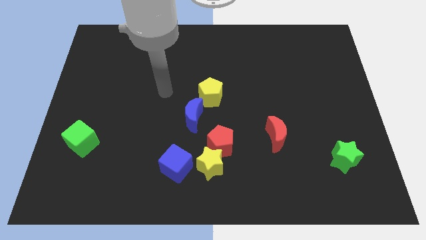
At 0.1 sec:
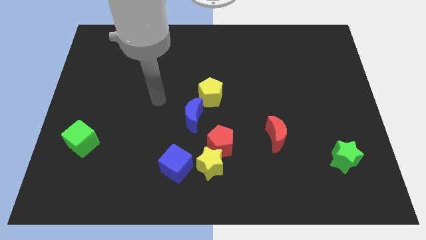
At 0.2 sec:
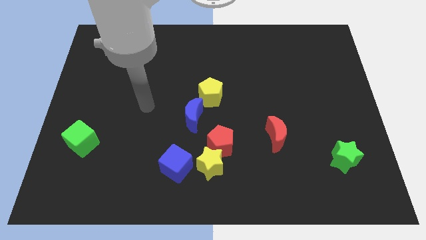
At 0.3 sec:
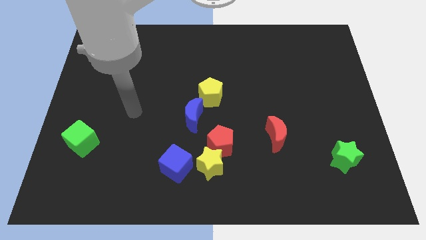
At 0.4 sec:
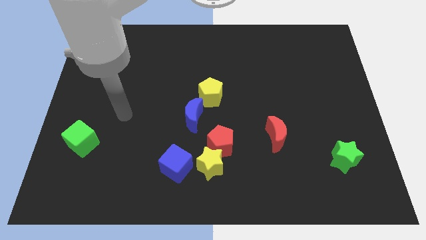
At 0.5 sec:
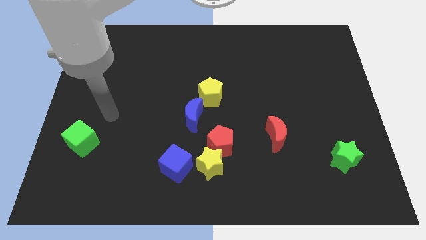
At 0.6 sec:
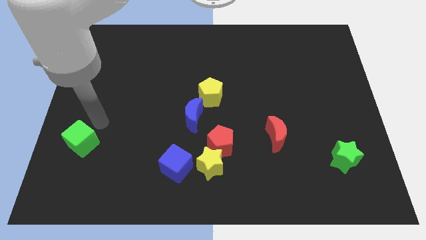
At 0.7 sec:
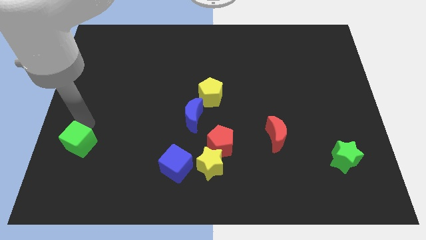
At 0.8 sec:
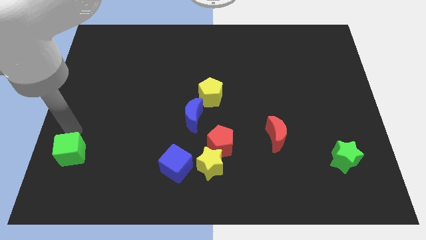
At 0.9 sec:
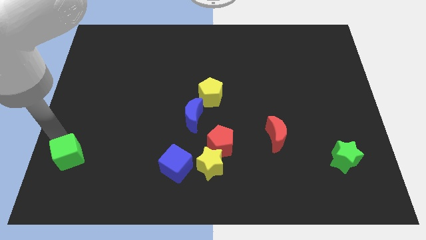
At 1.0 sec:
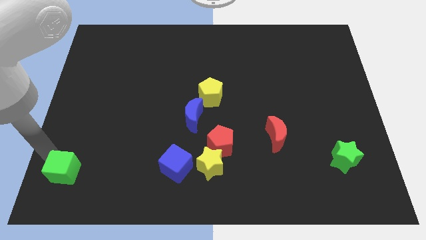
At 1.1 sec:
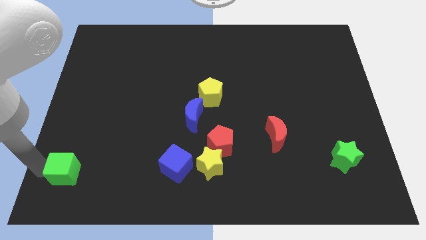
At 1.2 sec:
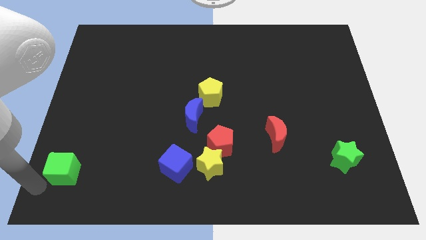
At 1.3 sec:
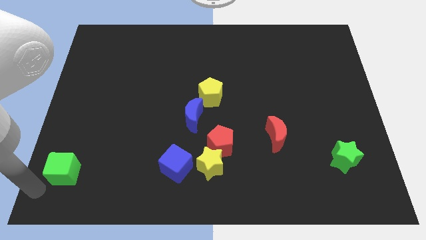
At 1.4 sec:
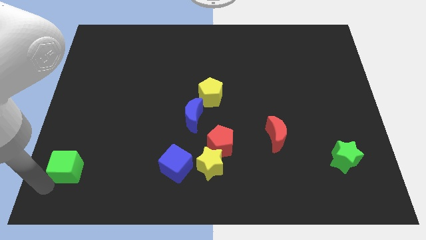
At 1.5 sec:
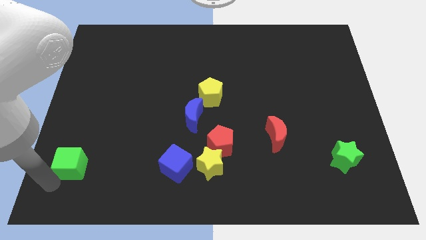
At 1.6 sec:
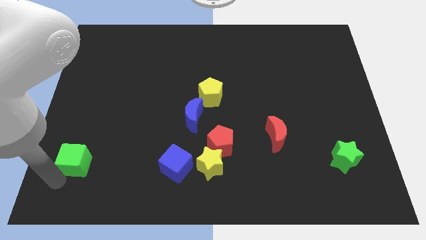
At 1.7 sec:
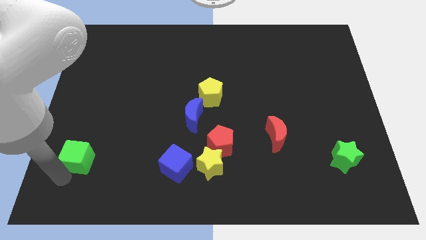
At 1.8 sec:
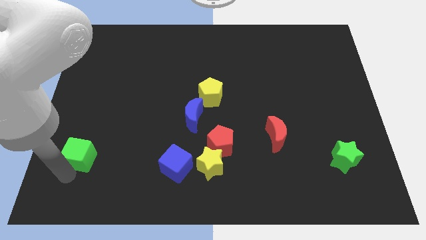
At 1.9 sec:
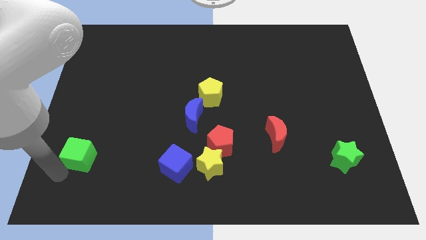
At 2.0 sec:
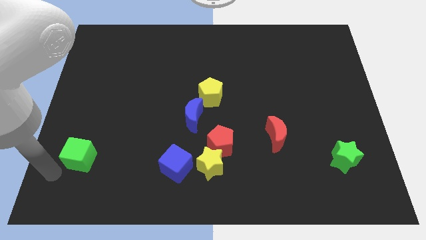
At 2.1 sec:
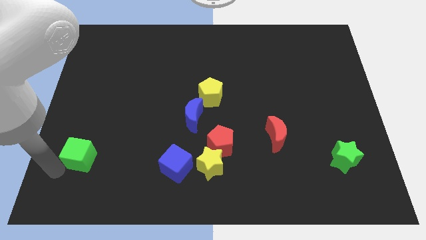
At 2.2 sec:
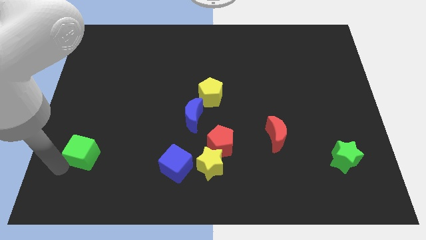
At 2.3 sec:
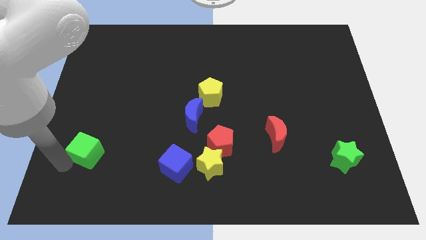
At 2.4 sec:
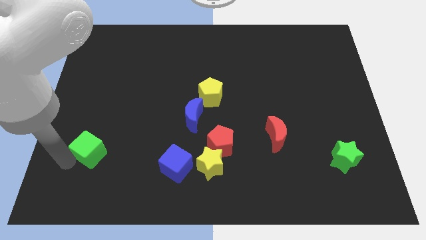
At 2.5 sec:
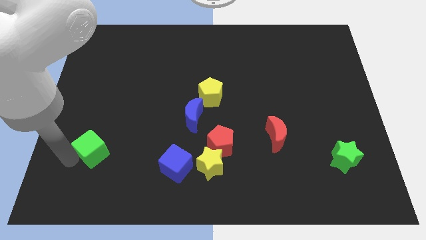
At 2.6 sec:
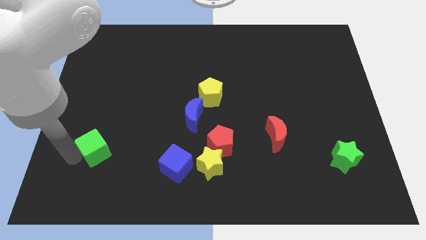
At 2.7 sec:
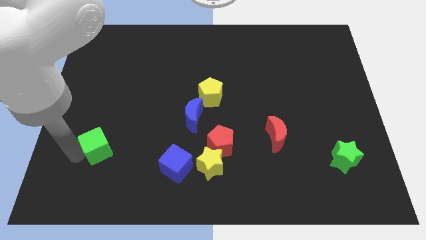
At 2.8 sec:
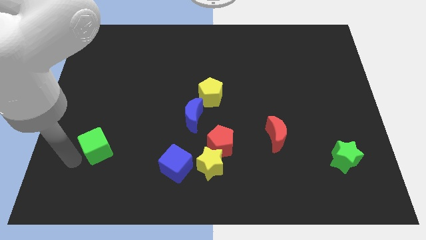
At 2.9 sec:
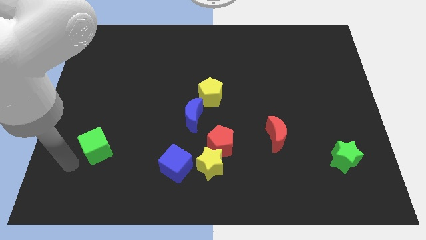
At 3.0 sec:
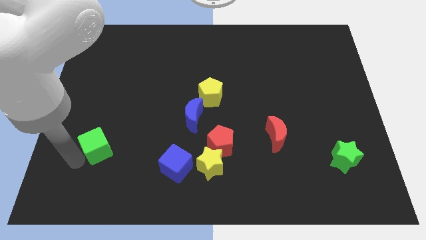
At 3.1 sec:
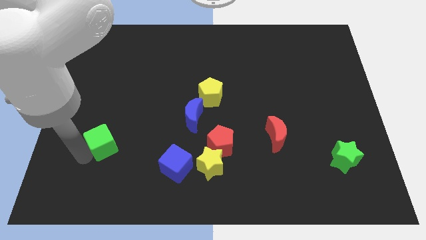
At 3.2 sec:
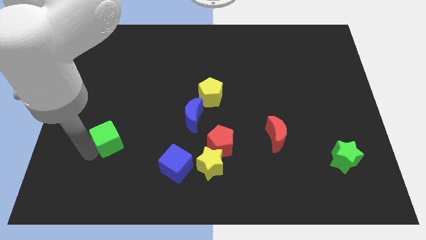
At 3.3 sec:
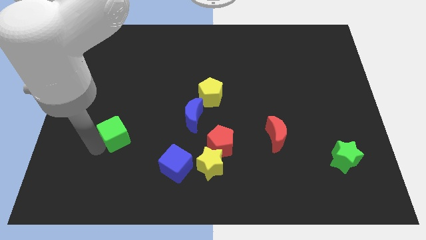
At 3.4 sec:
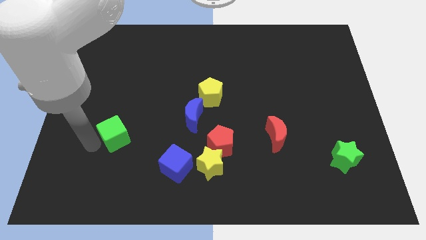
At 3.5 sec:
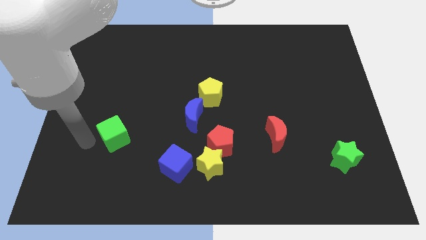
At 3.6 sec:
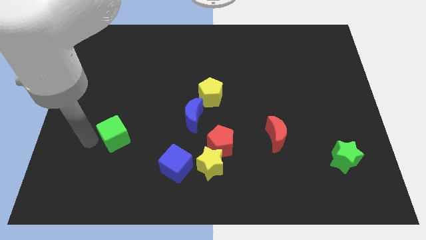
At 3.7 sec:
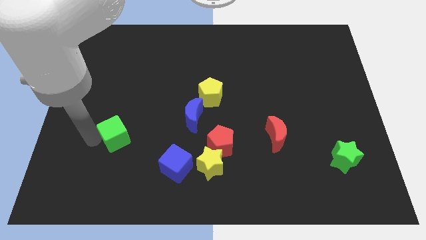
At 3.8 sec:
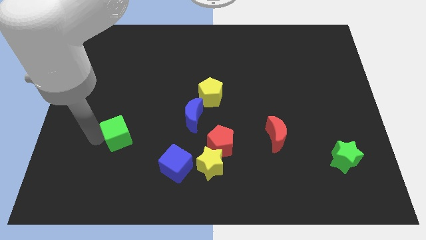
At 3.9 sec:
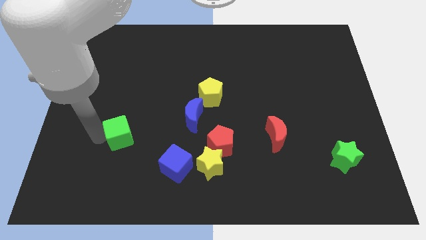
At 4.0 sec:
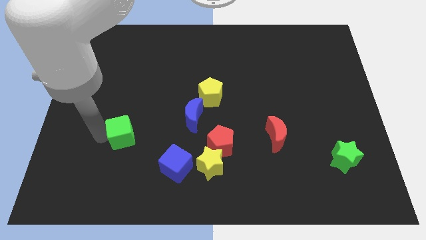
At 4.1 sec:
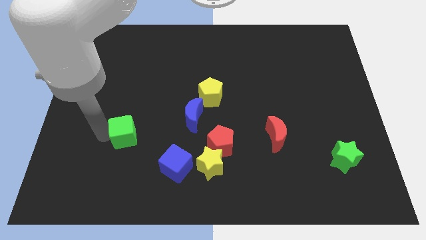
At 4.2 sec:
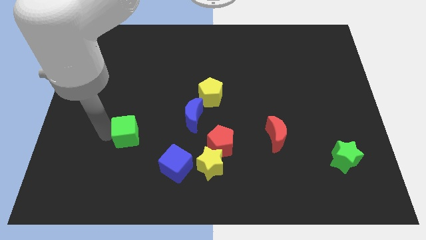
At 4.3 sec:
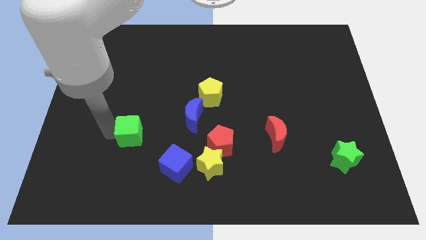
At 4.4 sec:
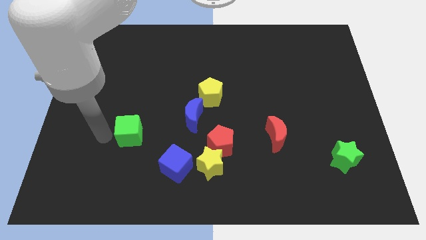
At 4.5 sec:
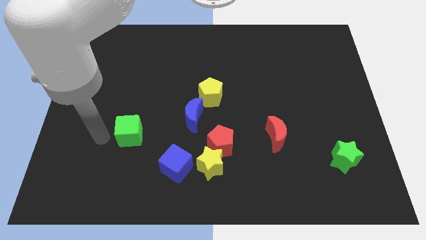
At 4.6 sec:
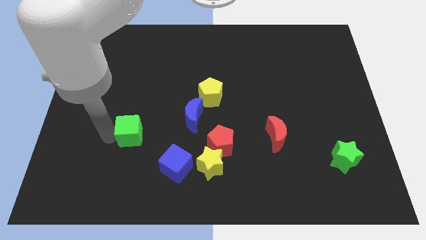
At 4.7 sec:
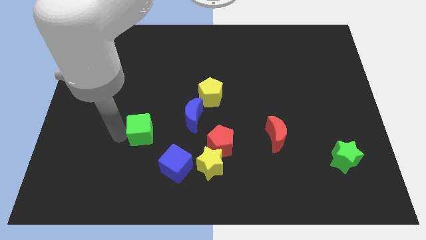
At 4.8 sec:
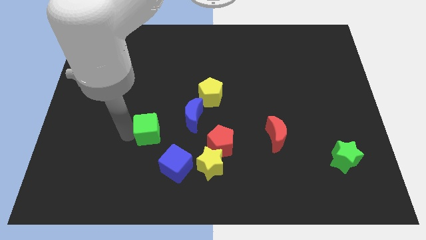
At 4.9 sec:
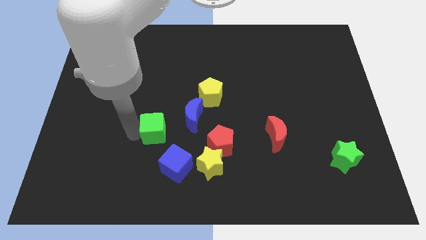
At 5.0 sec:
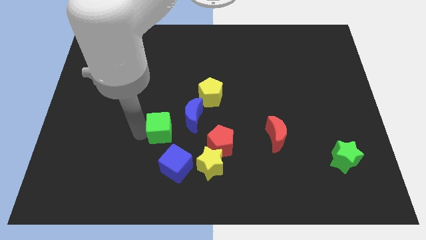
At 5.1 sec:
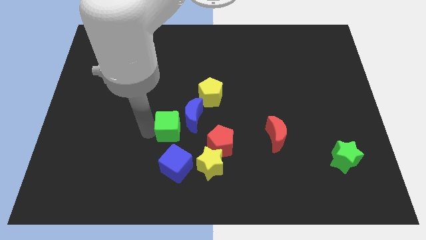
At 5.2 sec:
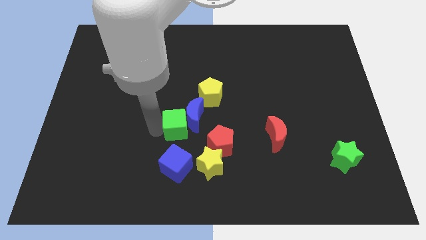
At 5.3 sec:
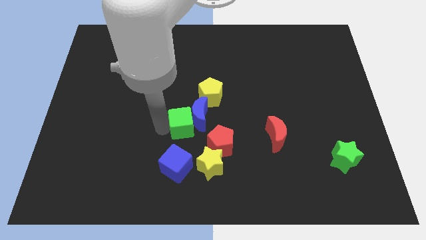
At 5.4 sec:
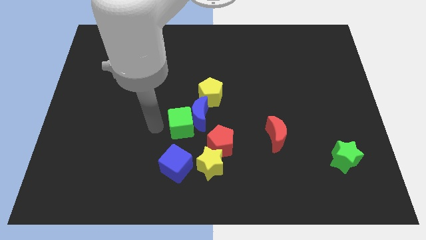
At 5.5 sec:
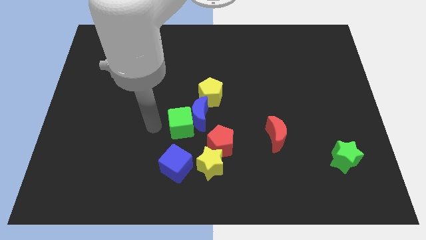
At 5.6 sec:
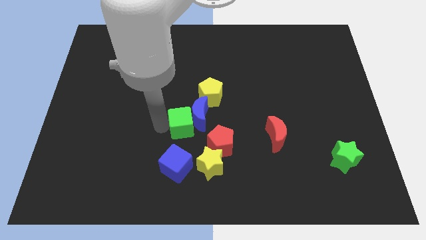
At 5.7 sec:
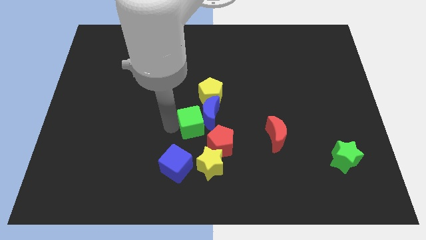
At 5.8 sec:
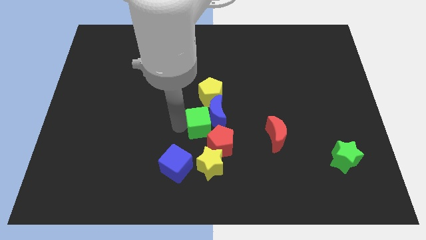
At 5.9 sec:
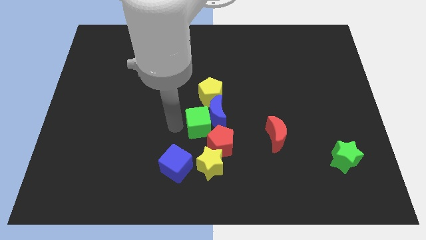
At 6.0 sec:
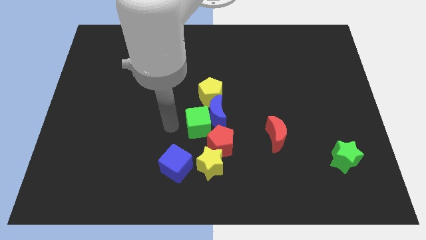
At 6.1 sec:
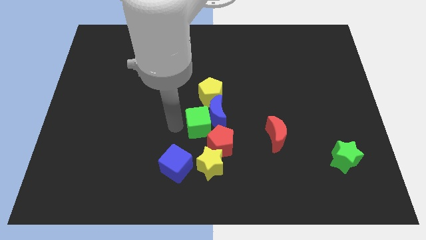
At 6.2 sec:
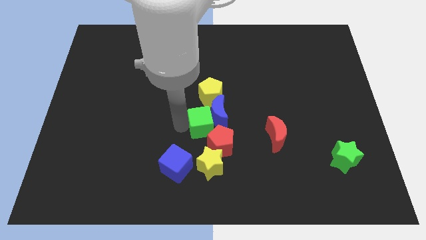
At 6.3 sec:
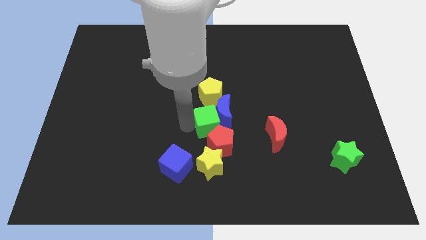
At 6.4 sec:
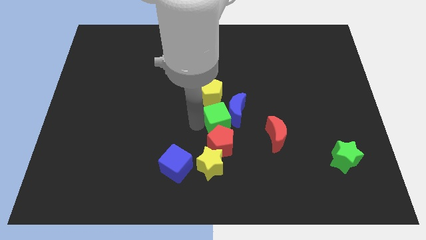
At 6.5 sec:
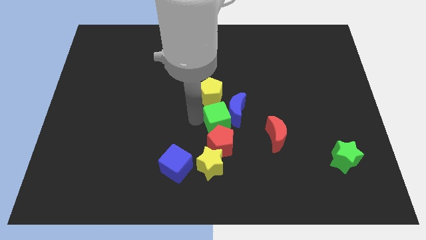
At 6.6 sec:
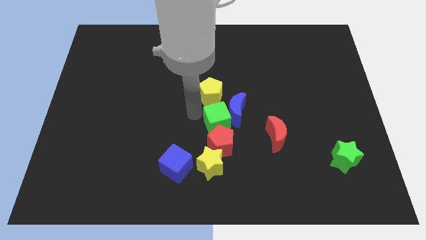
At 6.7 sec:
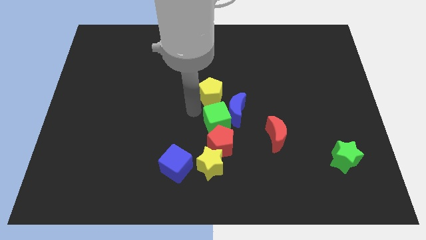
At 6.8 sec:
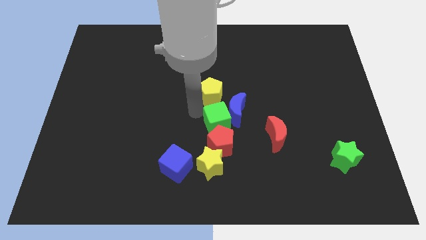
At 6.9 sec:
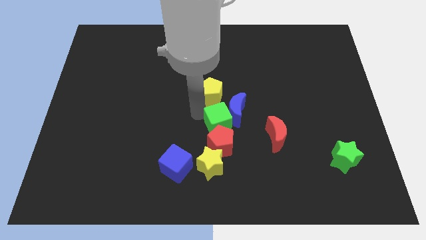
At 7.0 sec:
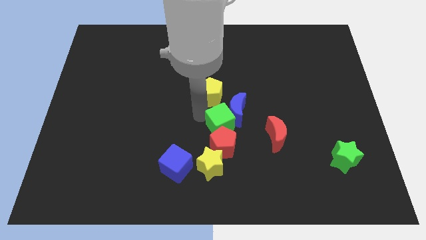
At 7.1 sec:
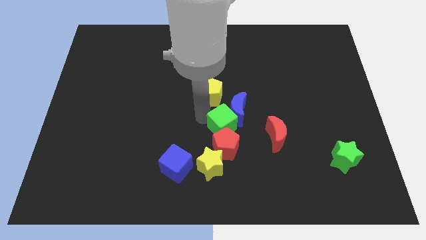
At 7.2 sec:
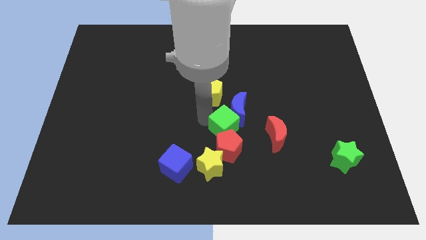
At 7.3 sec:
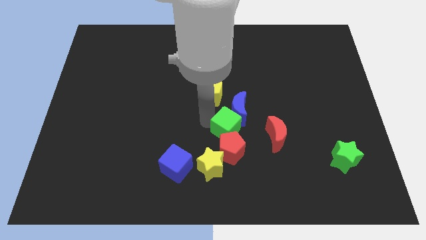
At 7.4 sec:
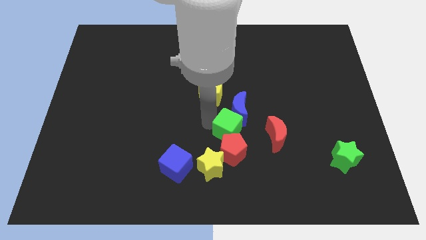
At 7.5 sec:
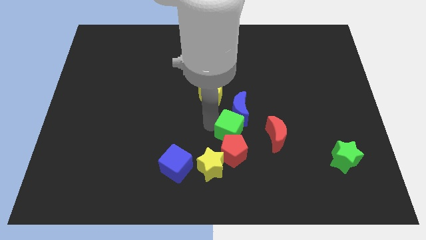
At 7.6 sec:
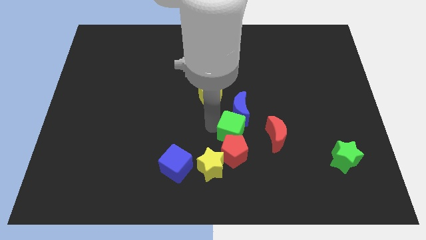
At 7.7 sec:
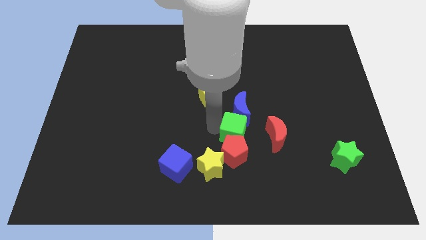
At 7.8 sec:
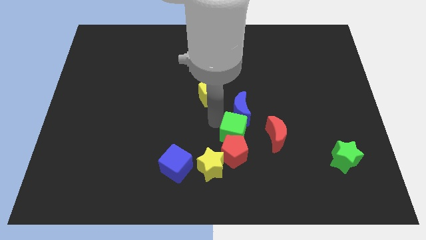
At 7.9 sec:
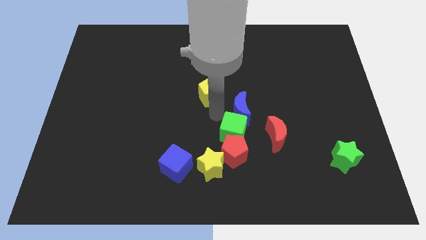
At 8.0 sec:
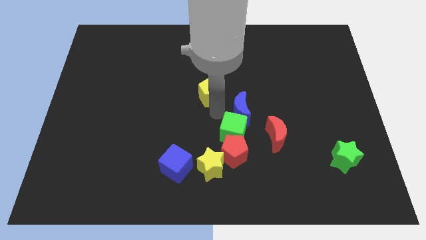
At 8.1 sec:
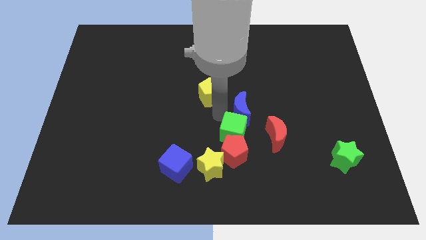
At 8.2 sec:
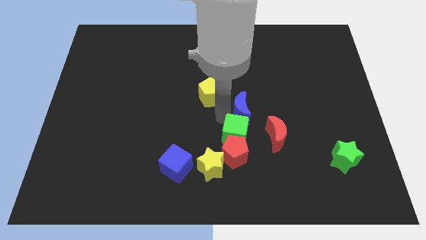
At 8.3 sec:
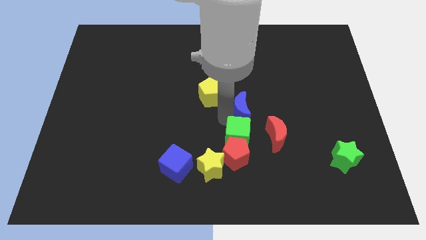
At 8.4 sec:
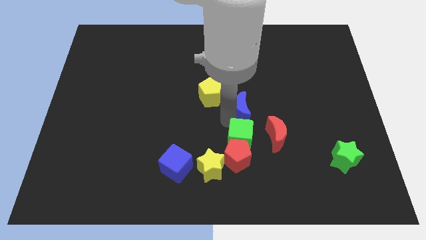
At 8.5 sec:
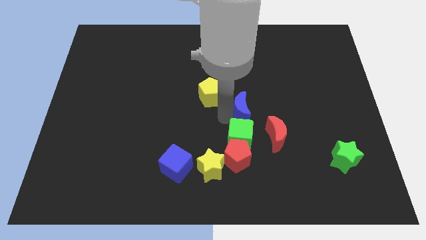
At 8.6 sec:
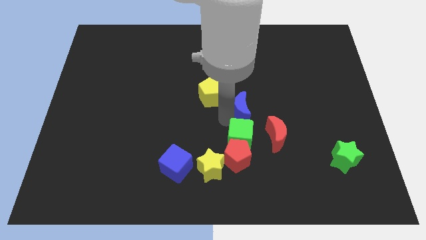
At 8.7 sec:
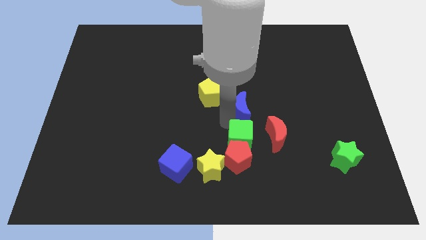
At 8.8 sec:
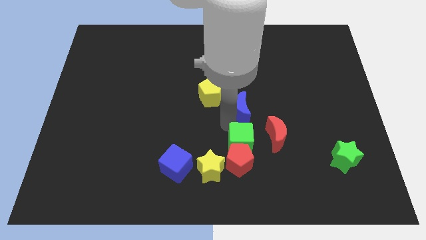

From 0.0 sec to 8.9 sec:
move the green cube to the bottom left of the red moon
